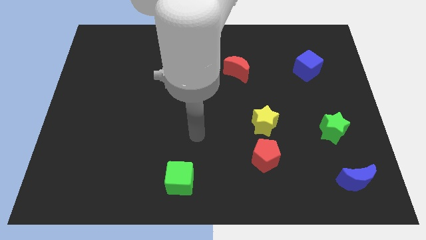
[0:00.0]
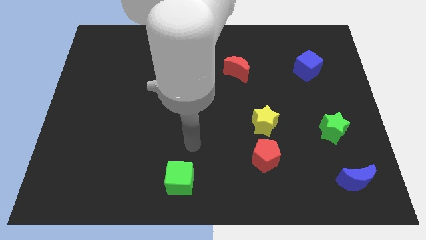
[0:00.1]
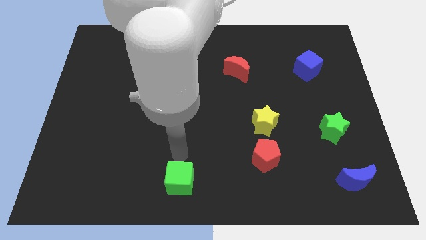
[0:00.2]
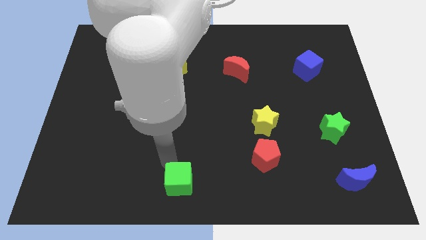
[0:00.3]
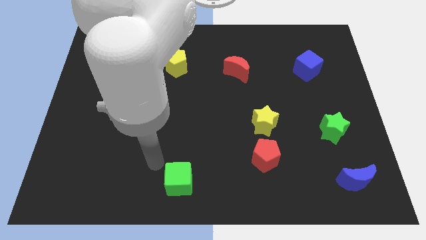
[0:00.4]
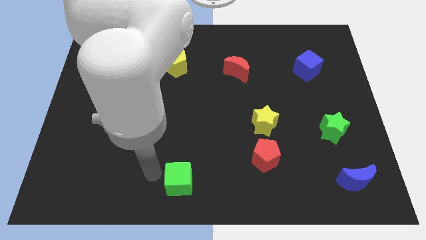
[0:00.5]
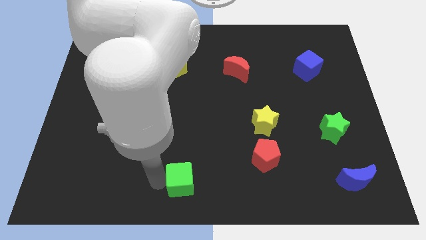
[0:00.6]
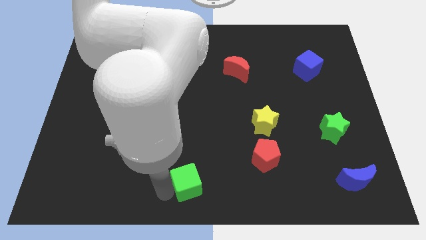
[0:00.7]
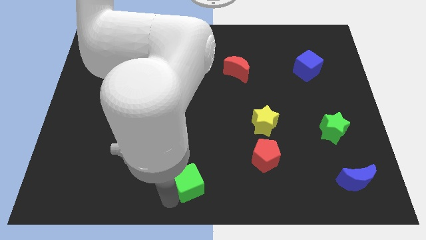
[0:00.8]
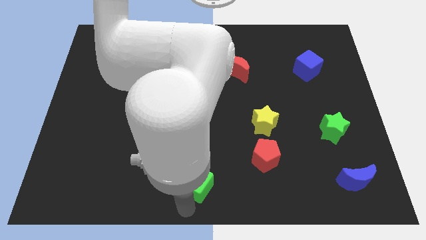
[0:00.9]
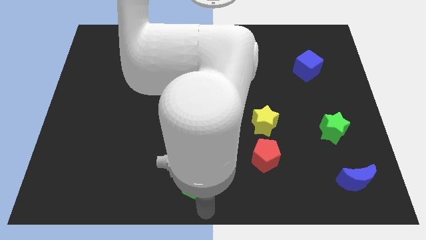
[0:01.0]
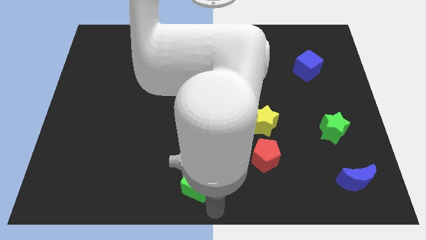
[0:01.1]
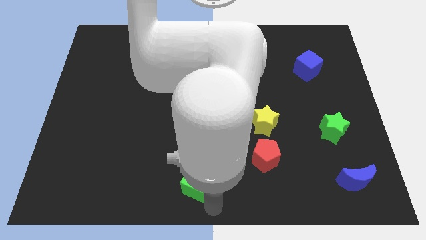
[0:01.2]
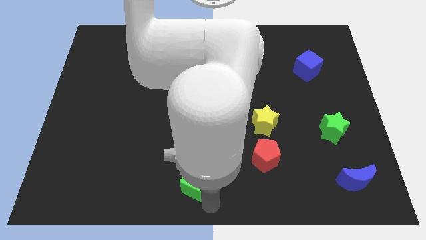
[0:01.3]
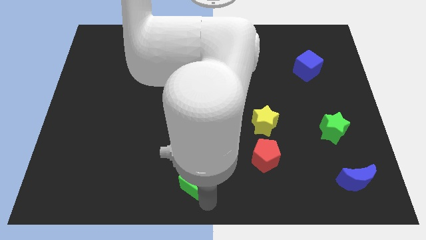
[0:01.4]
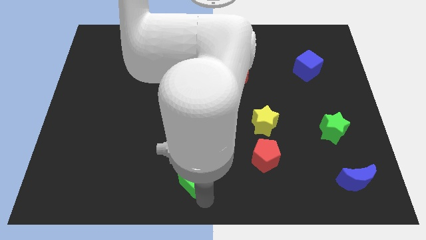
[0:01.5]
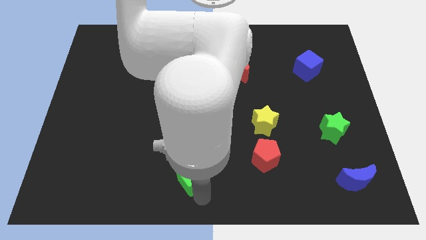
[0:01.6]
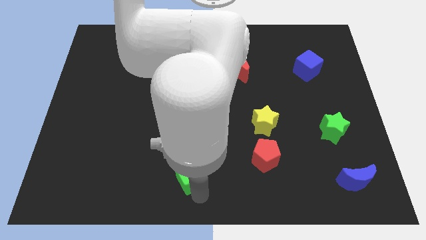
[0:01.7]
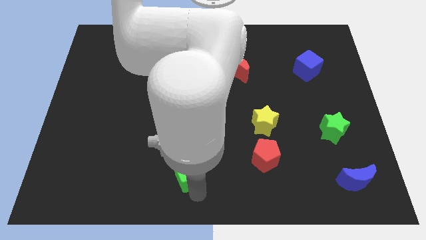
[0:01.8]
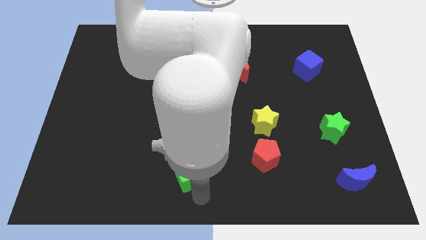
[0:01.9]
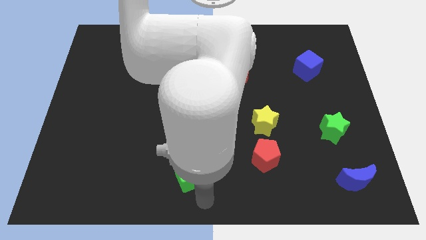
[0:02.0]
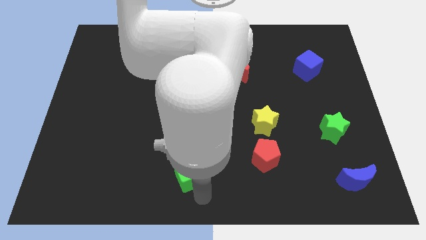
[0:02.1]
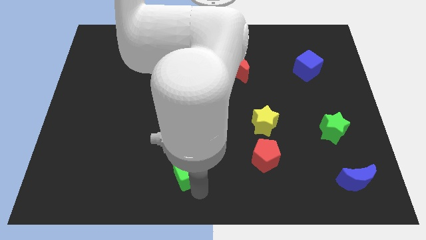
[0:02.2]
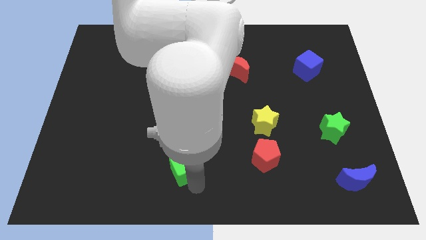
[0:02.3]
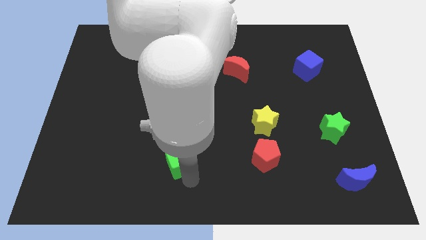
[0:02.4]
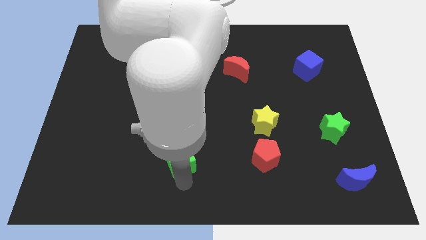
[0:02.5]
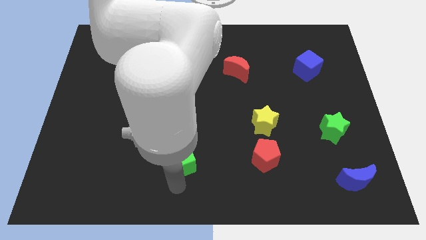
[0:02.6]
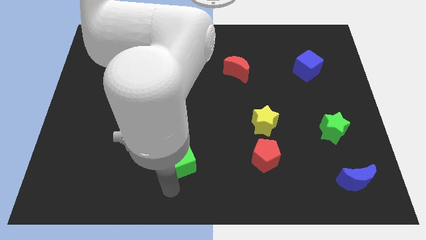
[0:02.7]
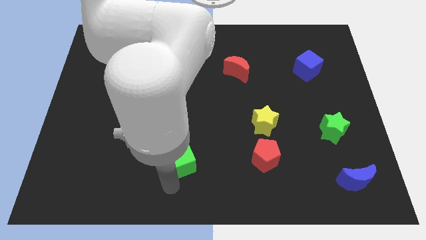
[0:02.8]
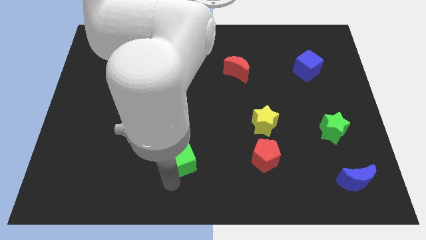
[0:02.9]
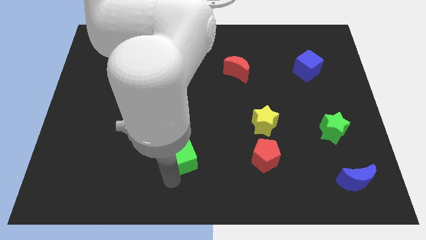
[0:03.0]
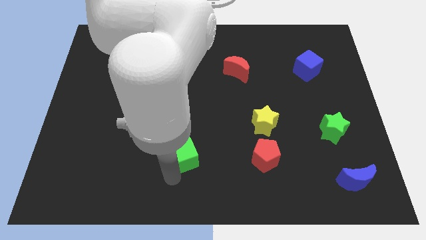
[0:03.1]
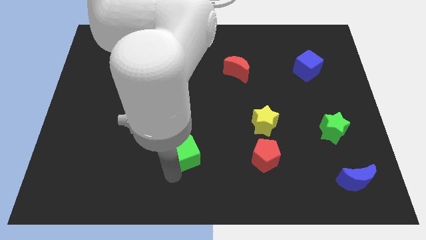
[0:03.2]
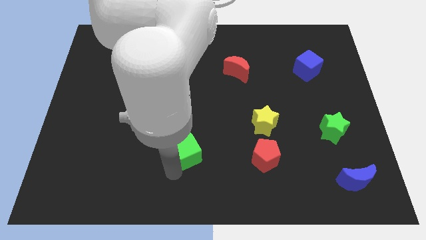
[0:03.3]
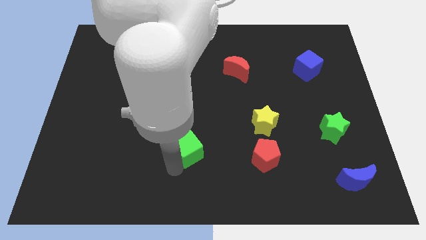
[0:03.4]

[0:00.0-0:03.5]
push the green cube a little bit upwards

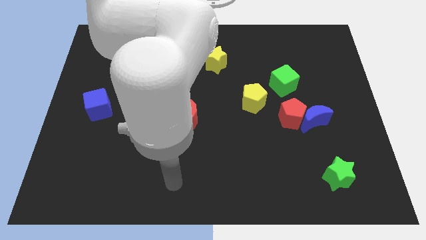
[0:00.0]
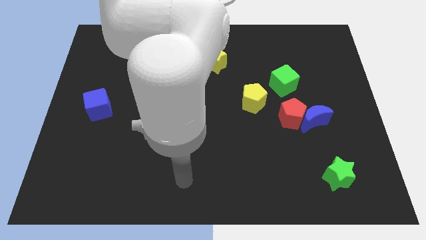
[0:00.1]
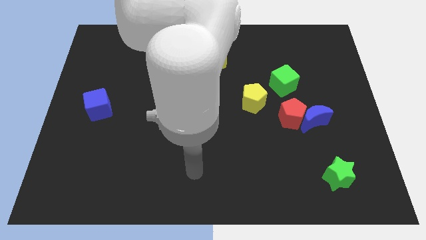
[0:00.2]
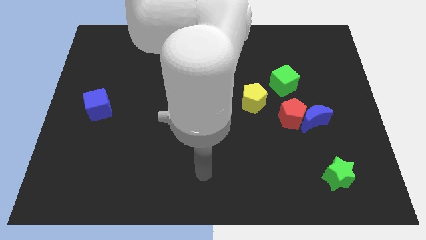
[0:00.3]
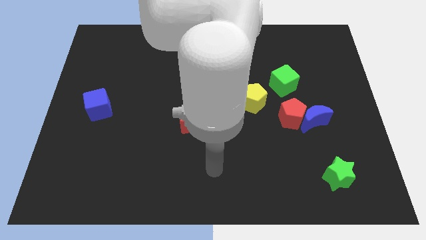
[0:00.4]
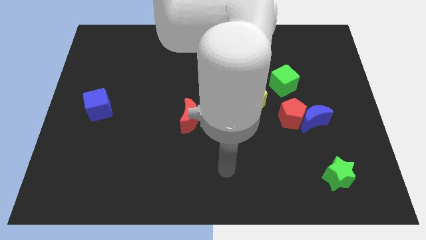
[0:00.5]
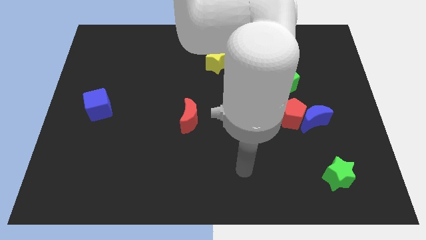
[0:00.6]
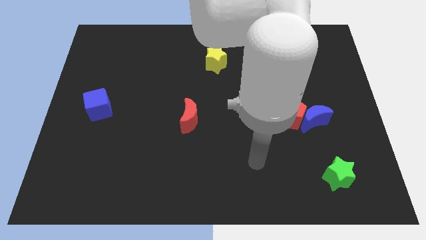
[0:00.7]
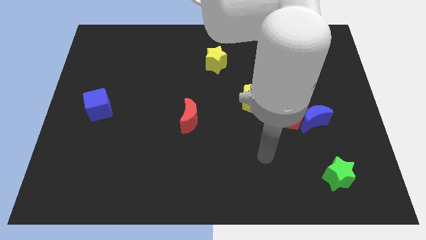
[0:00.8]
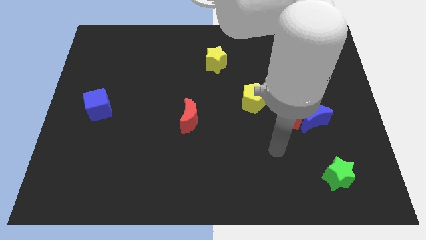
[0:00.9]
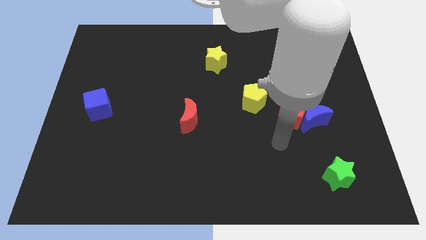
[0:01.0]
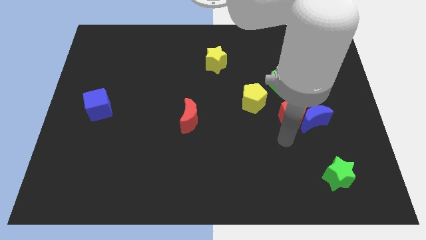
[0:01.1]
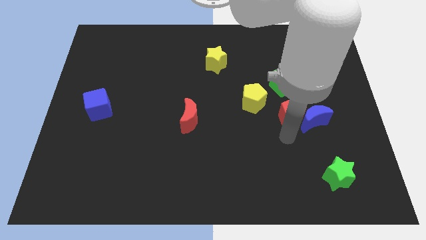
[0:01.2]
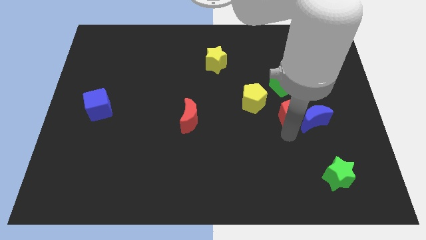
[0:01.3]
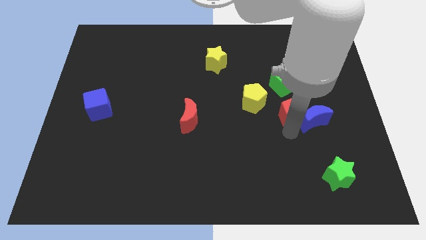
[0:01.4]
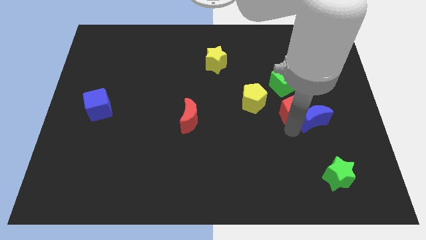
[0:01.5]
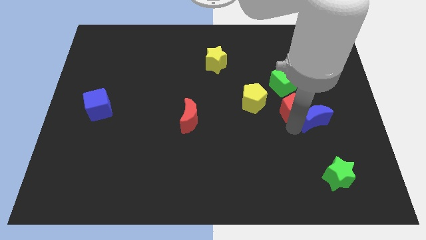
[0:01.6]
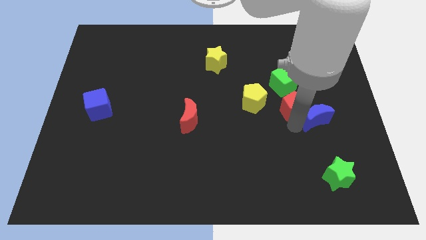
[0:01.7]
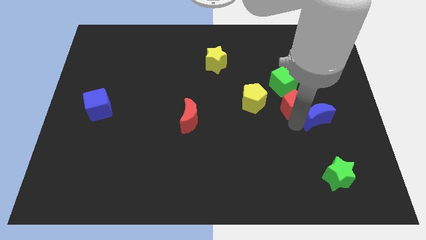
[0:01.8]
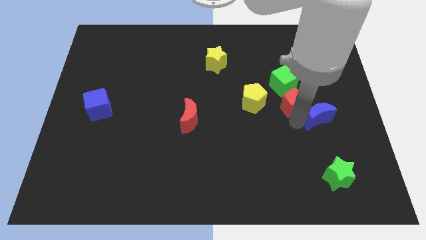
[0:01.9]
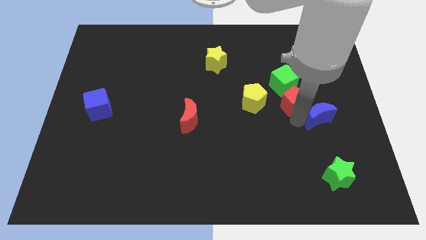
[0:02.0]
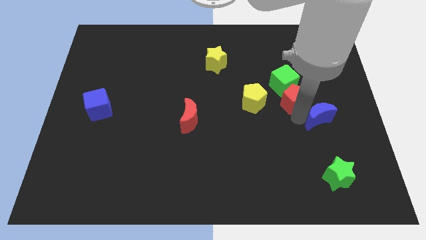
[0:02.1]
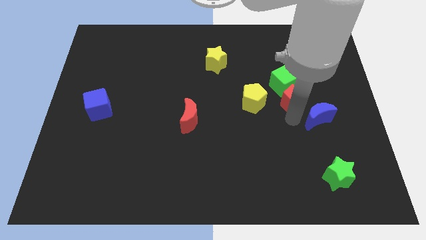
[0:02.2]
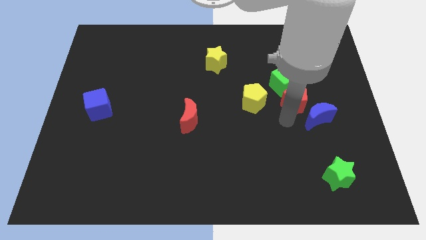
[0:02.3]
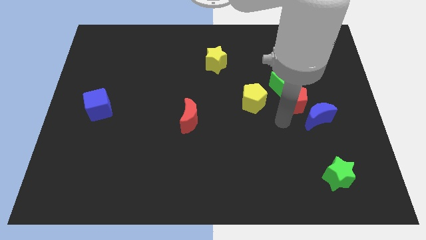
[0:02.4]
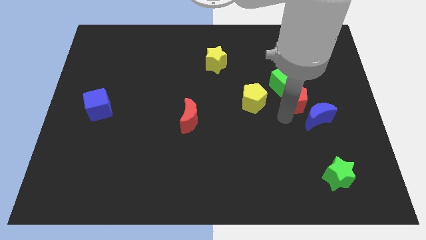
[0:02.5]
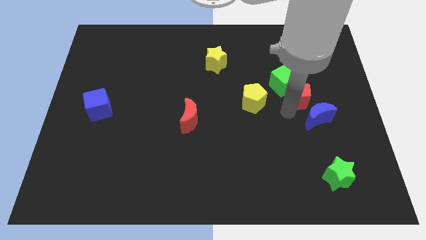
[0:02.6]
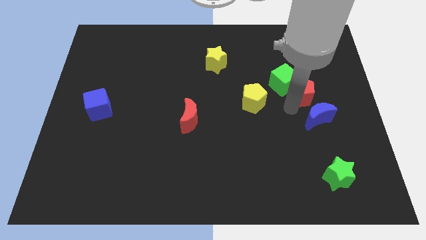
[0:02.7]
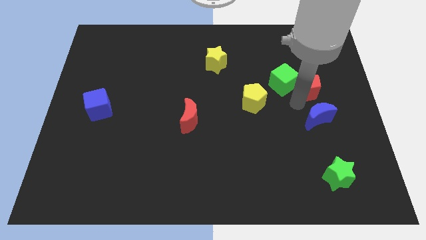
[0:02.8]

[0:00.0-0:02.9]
move the red pentagon a little bit upwards

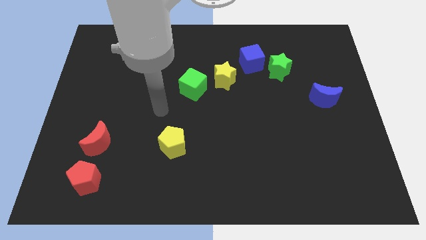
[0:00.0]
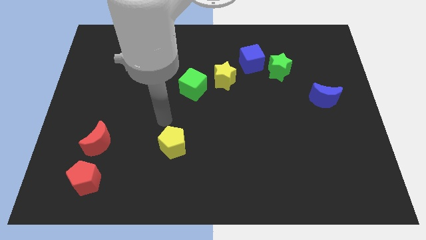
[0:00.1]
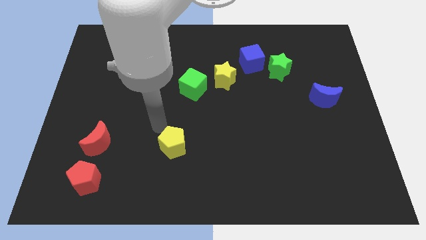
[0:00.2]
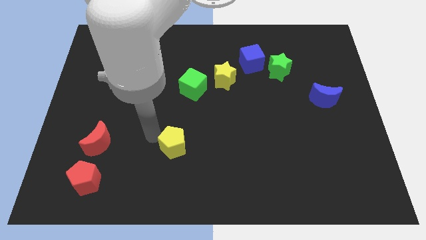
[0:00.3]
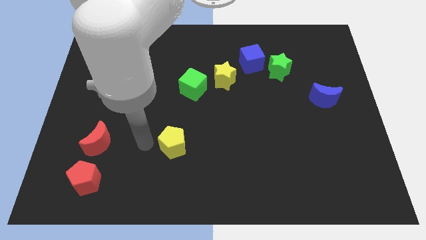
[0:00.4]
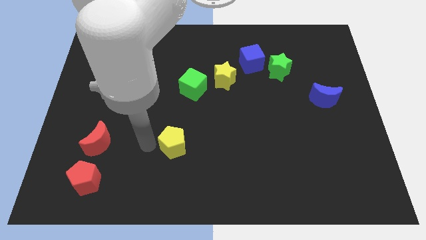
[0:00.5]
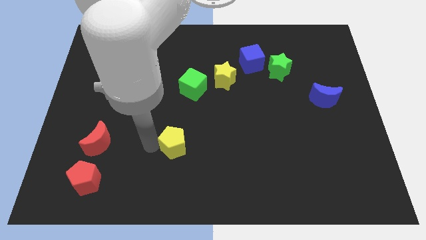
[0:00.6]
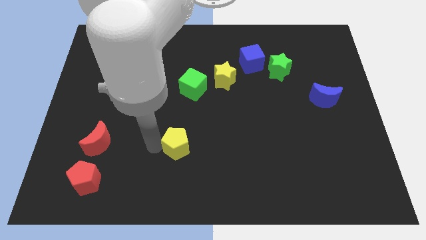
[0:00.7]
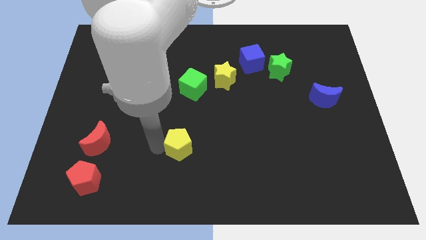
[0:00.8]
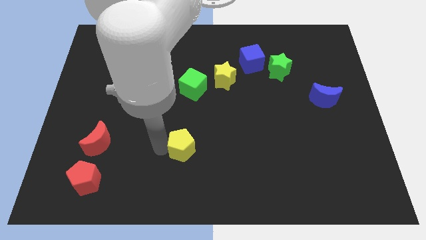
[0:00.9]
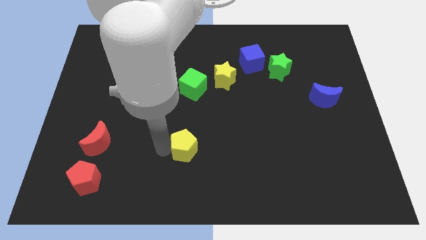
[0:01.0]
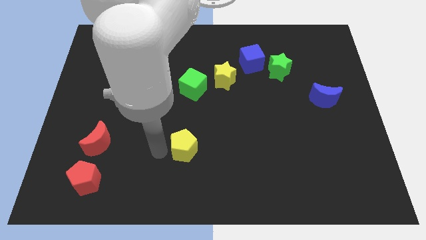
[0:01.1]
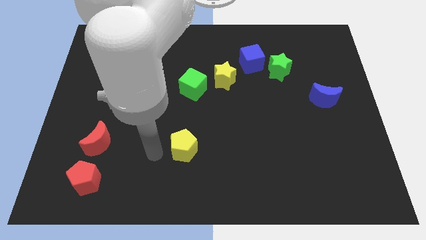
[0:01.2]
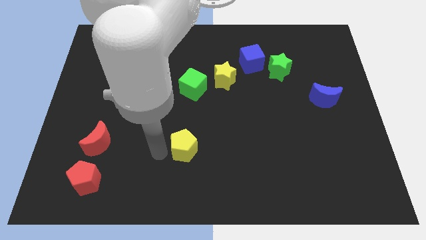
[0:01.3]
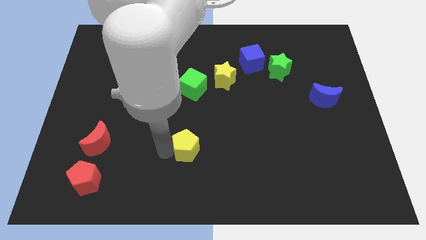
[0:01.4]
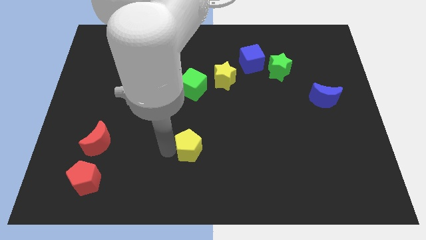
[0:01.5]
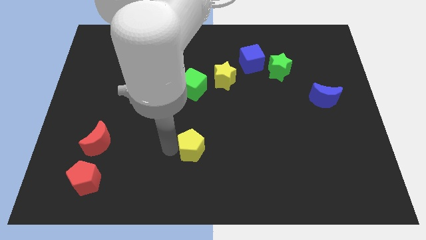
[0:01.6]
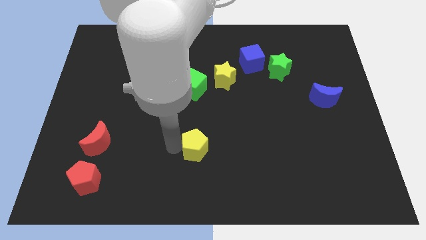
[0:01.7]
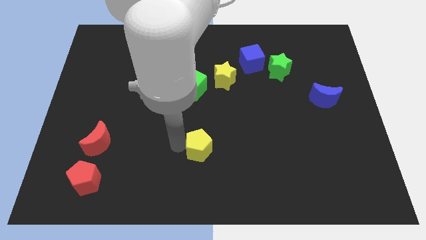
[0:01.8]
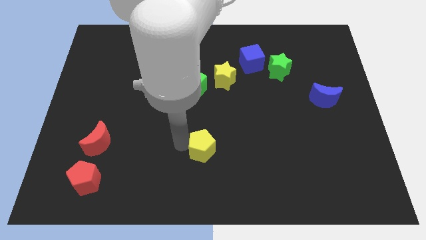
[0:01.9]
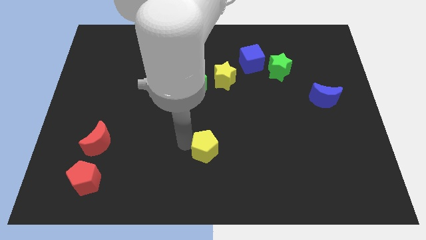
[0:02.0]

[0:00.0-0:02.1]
push the yellow pentagon to the right somewhat
